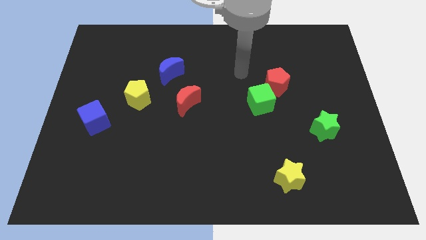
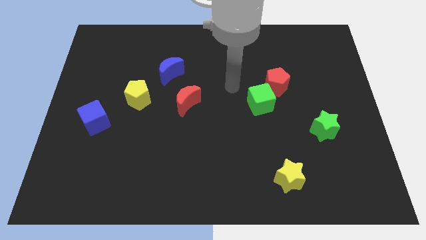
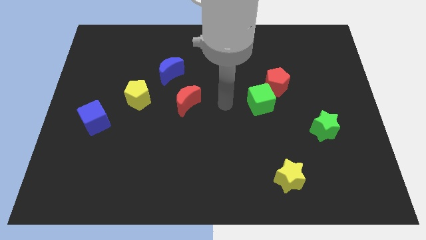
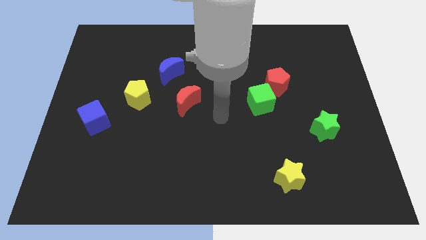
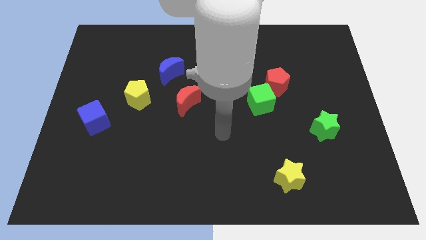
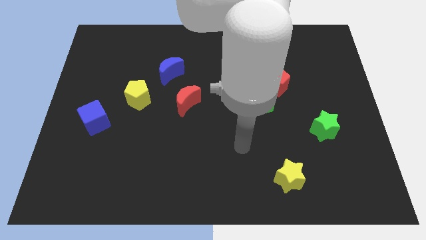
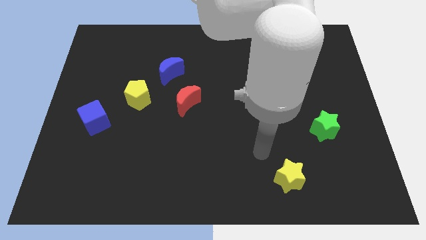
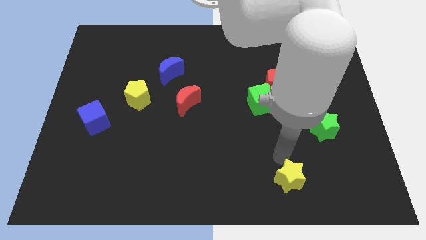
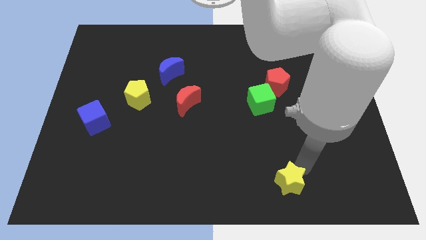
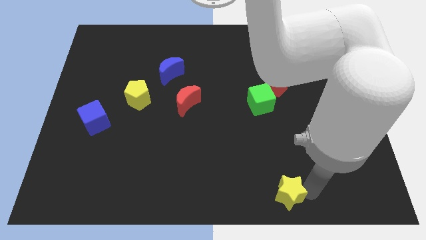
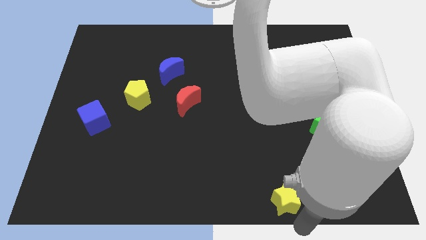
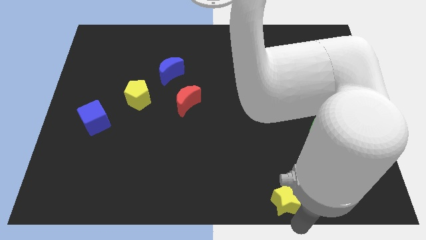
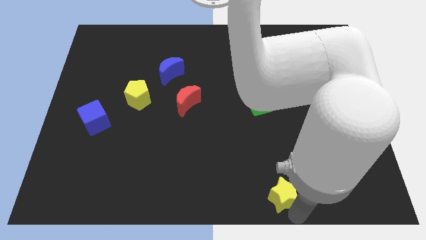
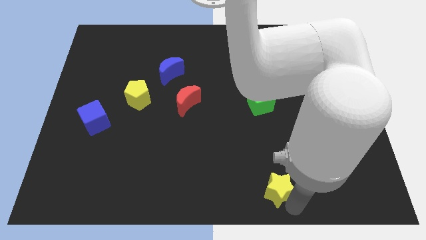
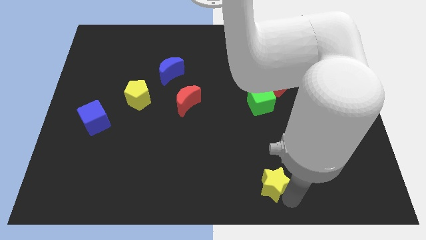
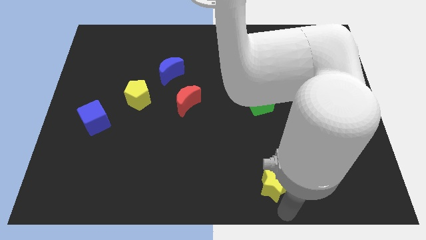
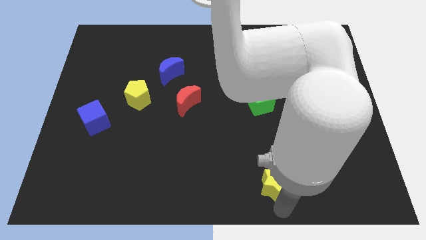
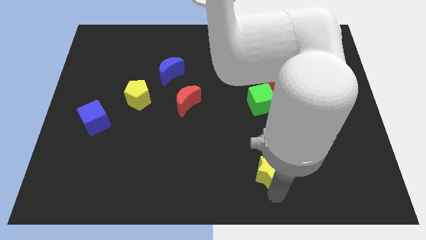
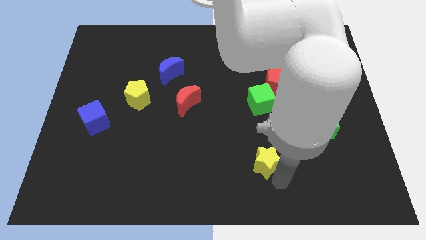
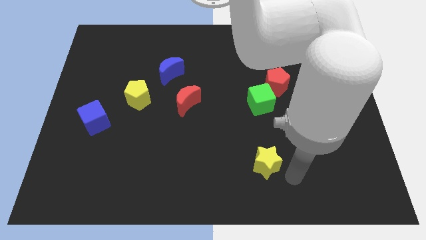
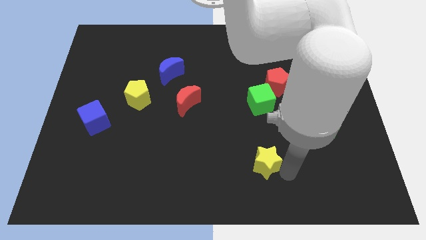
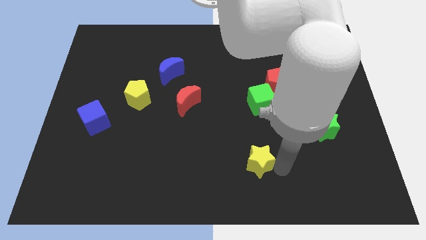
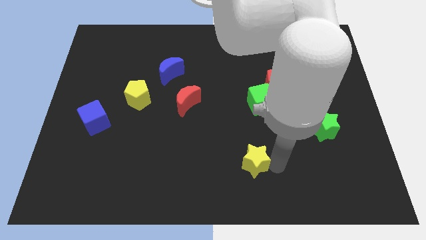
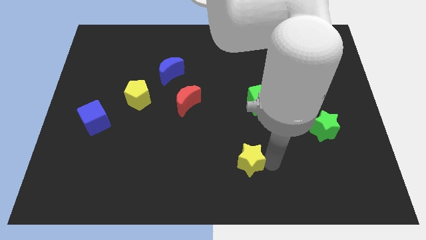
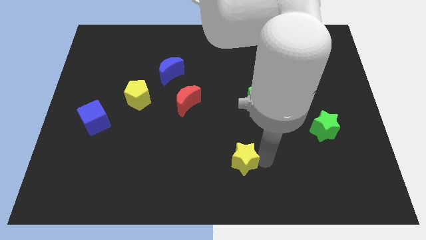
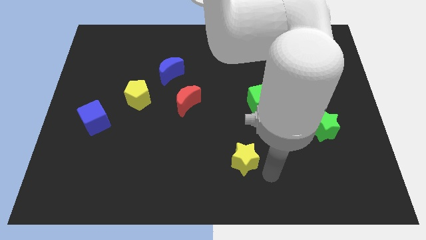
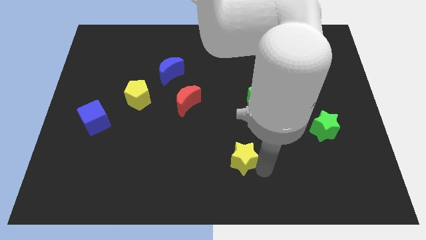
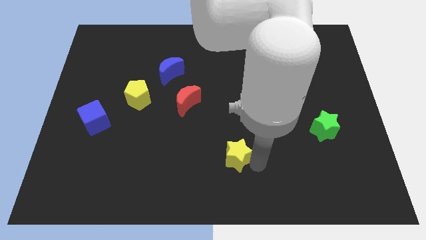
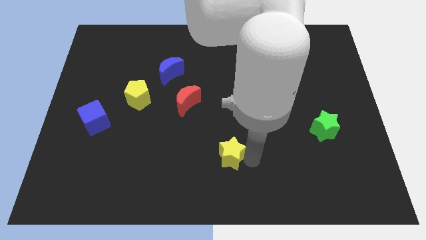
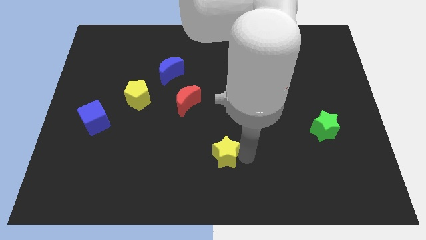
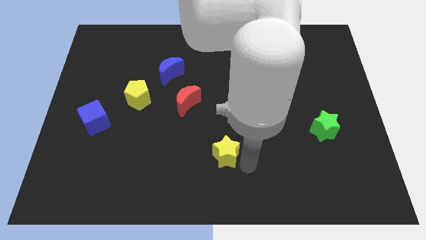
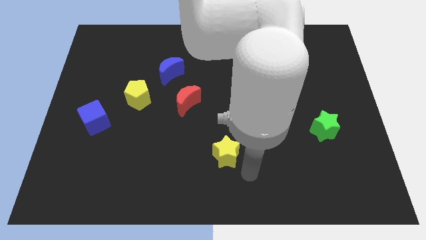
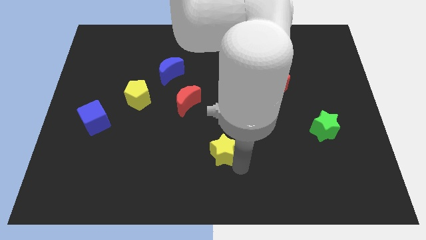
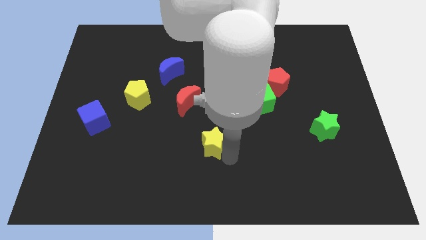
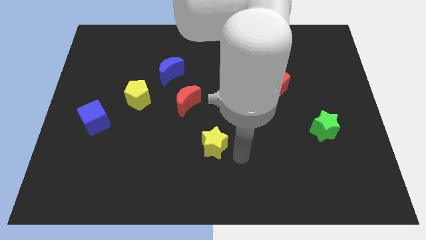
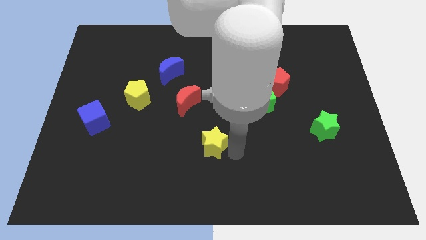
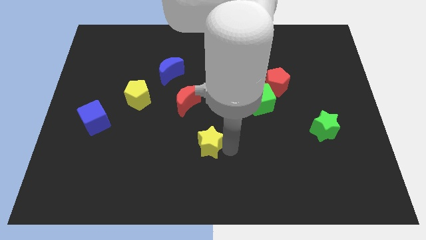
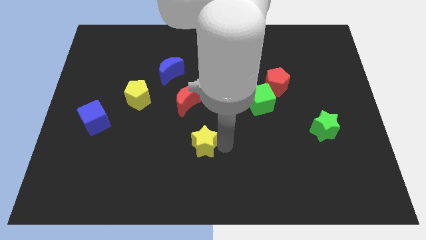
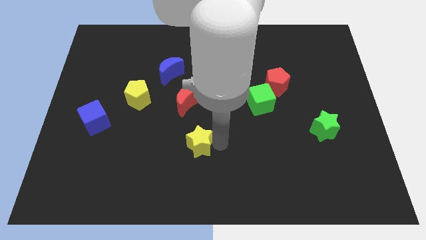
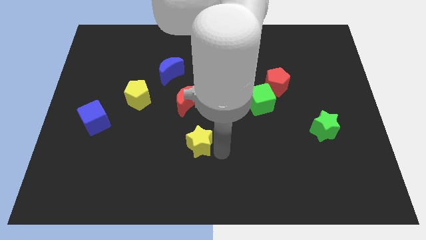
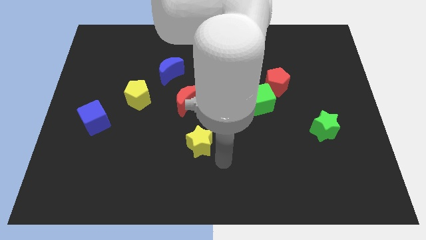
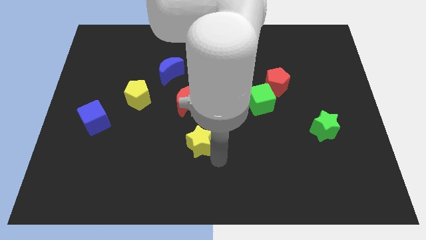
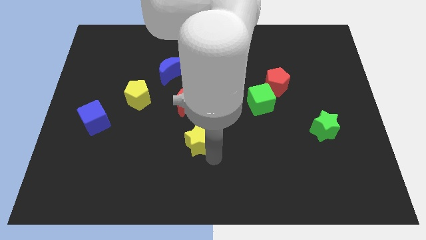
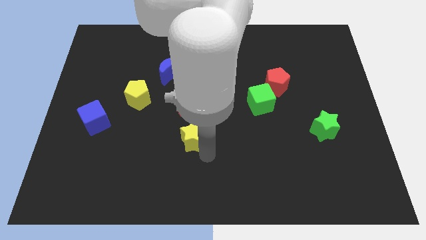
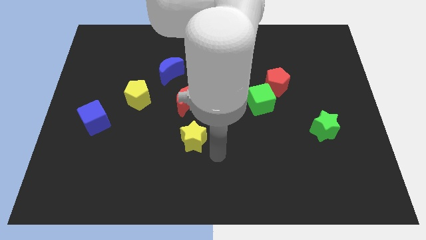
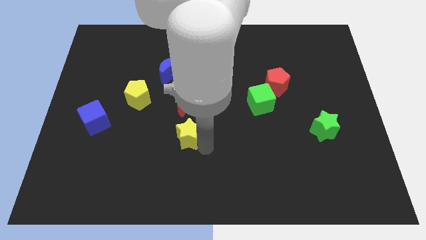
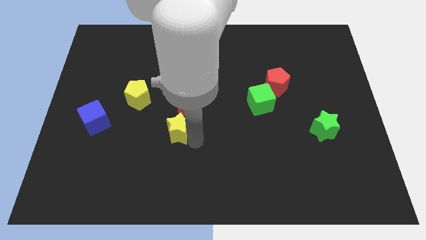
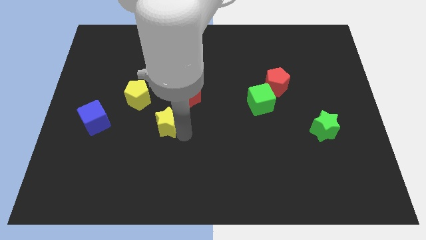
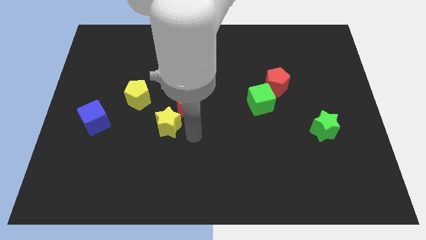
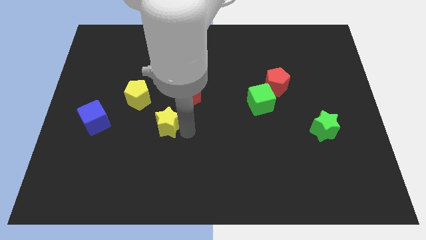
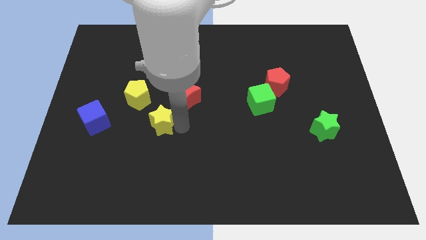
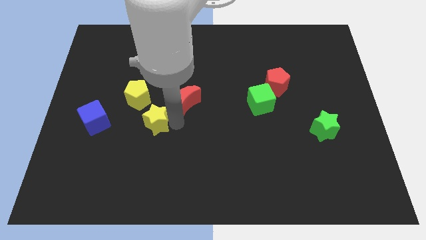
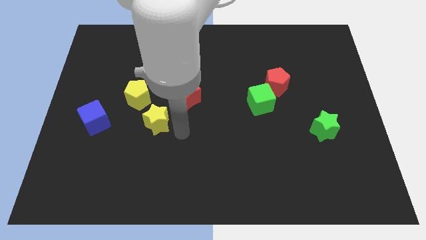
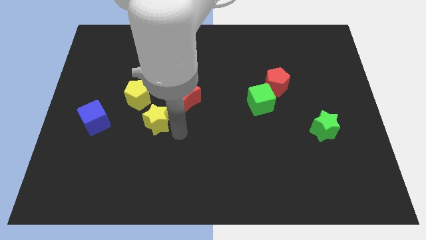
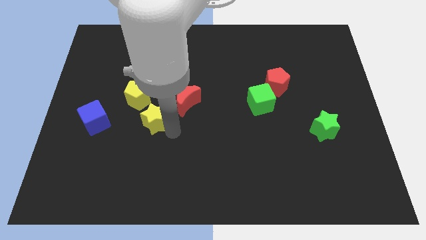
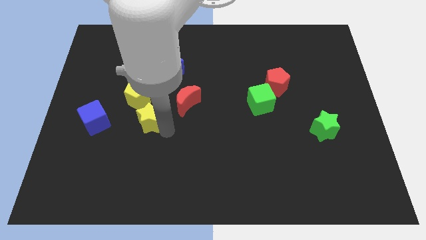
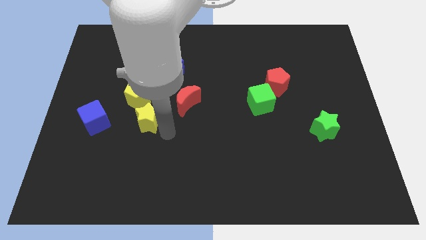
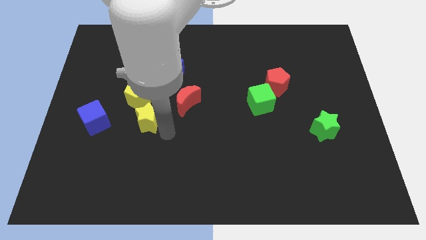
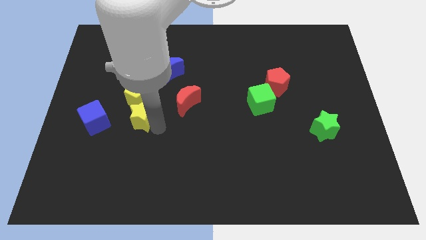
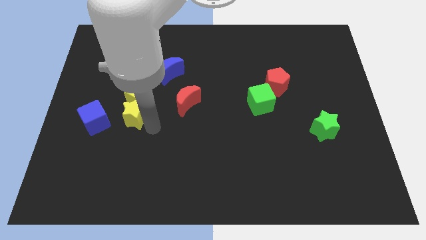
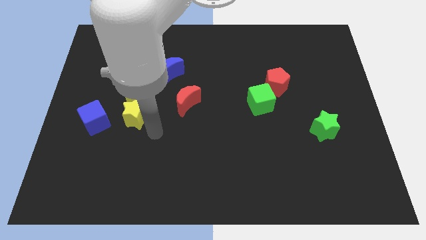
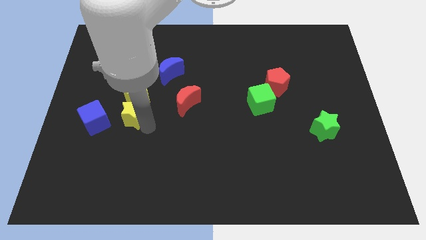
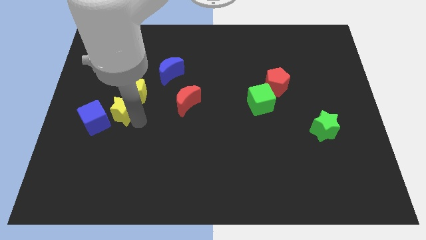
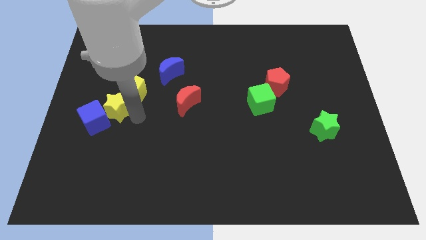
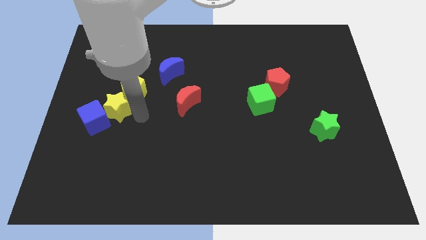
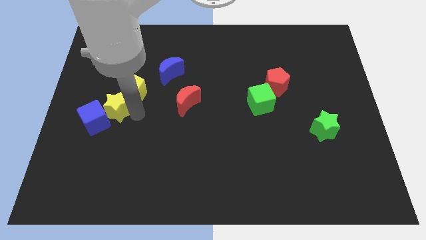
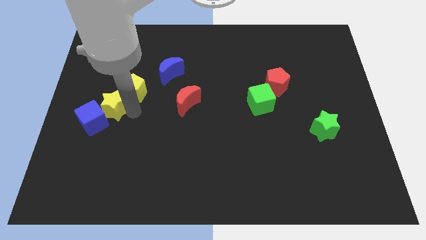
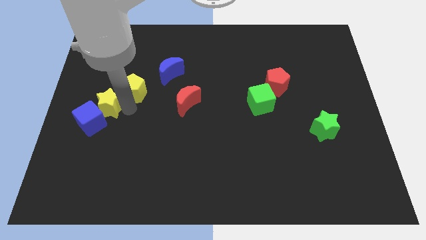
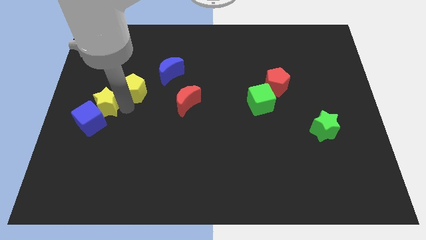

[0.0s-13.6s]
slide the yellow star to the left side
